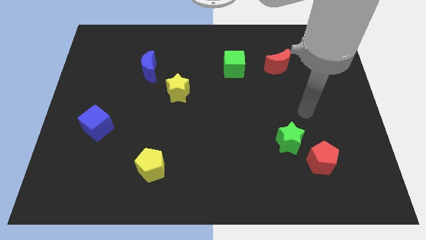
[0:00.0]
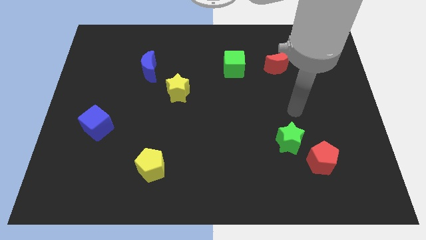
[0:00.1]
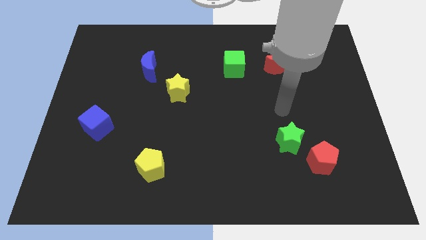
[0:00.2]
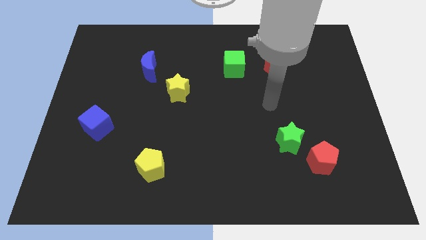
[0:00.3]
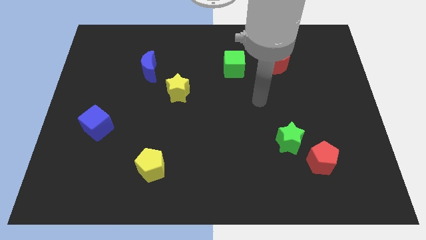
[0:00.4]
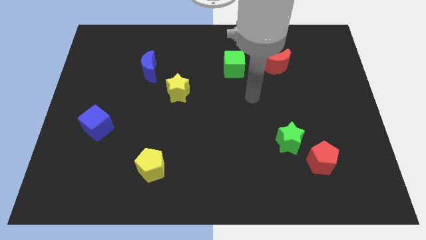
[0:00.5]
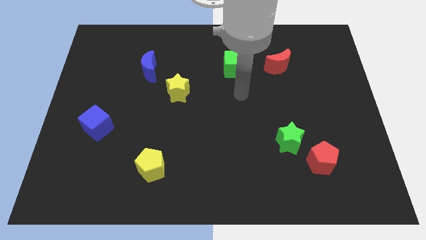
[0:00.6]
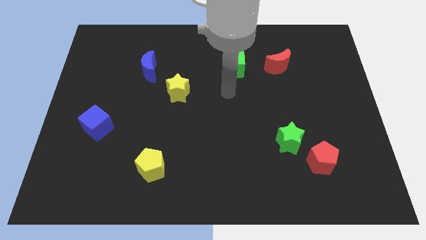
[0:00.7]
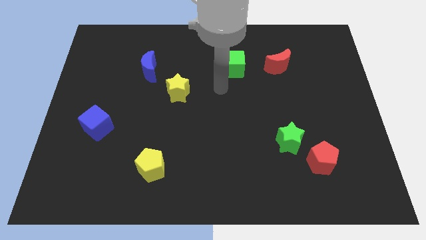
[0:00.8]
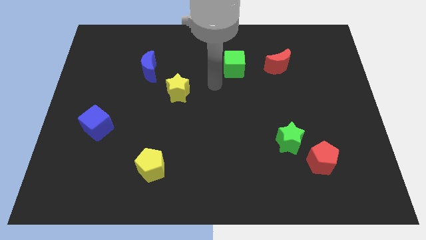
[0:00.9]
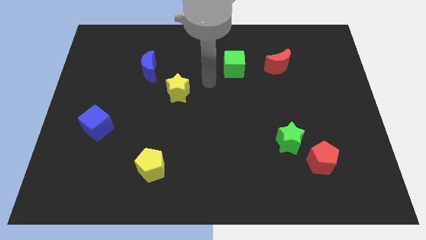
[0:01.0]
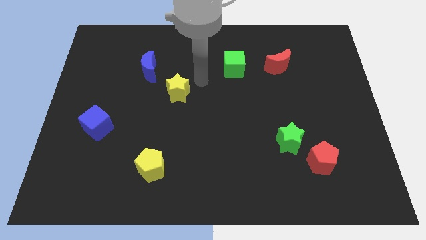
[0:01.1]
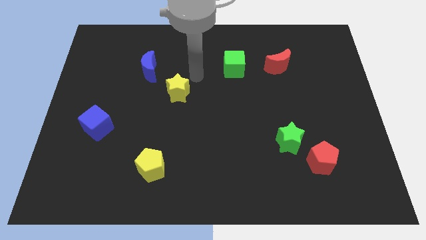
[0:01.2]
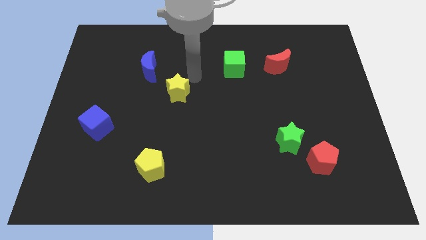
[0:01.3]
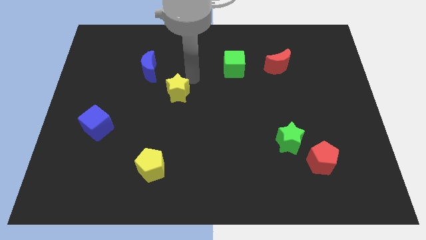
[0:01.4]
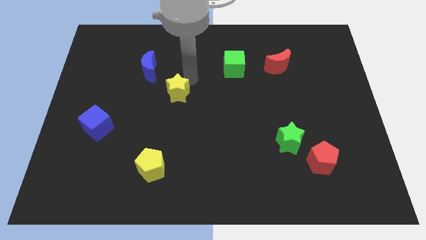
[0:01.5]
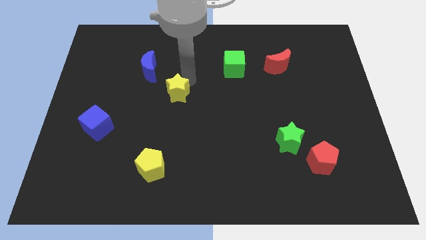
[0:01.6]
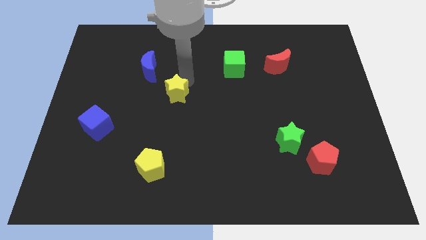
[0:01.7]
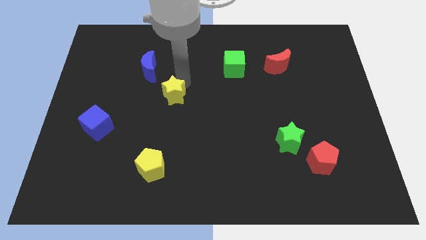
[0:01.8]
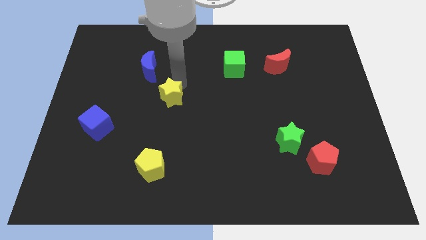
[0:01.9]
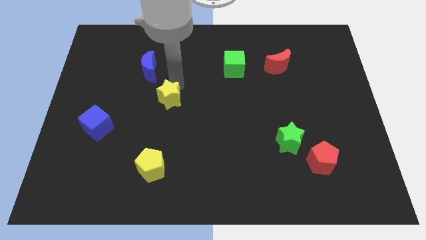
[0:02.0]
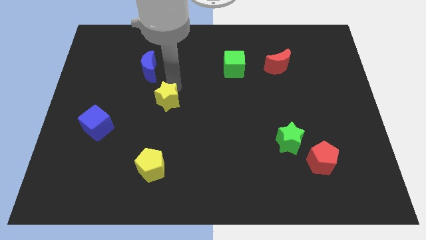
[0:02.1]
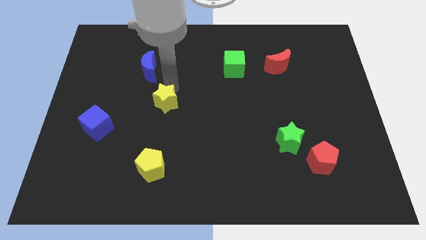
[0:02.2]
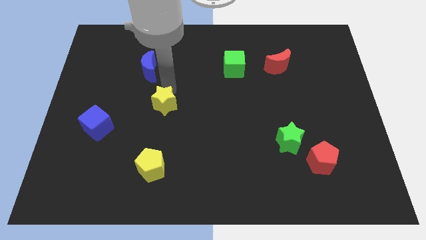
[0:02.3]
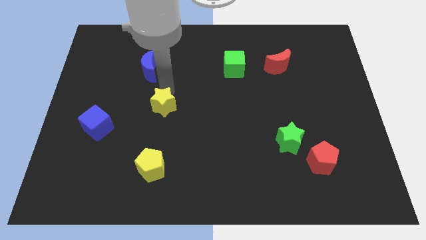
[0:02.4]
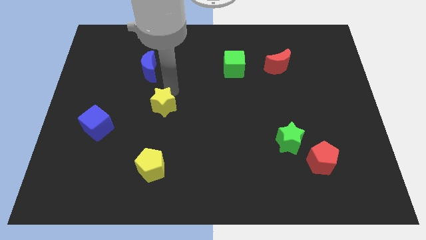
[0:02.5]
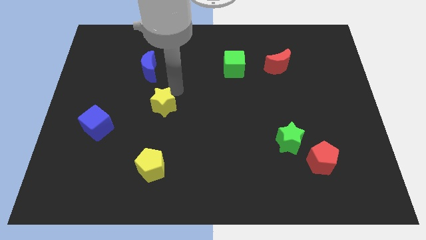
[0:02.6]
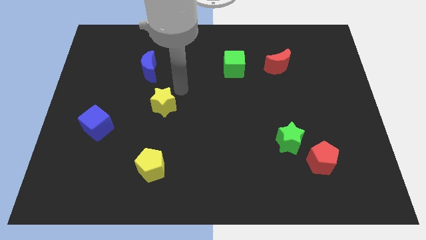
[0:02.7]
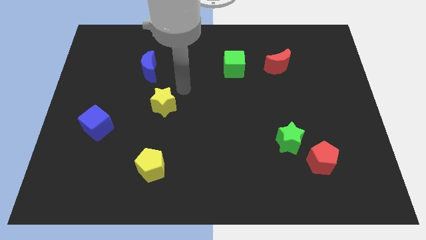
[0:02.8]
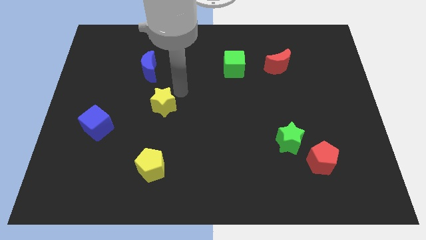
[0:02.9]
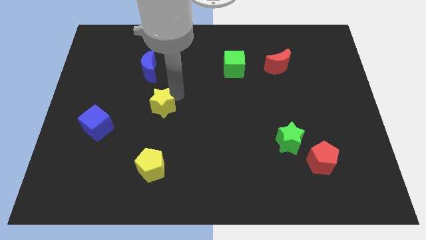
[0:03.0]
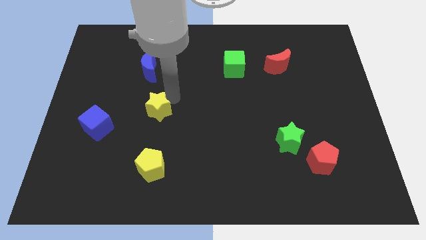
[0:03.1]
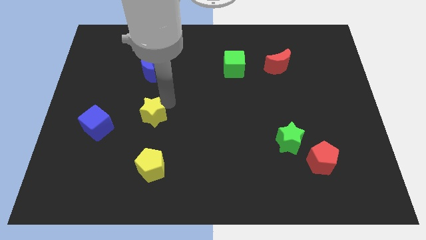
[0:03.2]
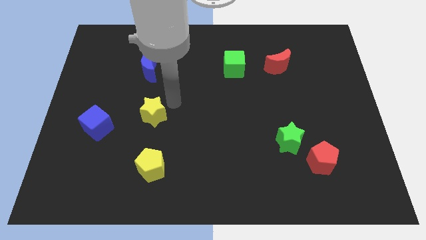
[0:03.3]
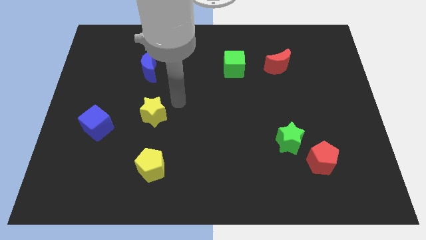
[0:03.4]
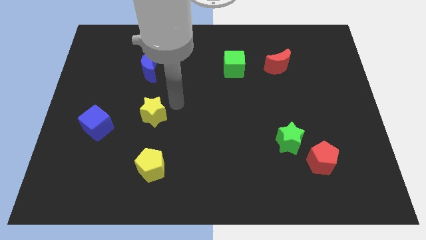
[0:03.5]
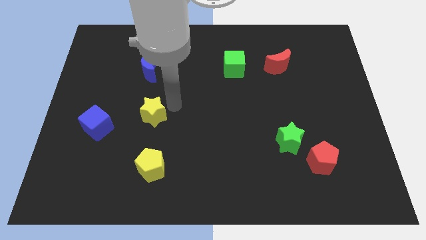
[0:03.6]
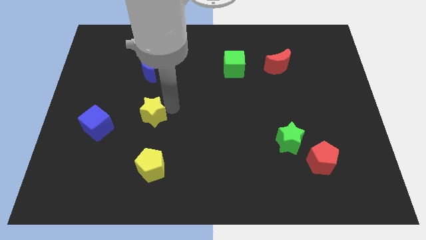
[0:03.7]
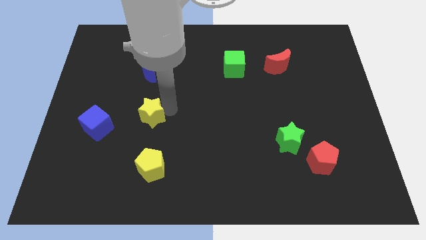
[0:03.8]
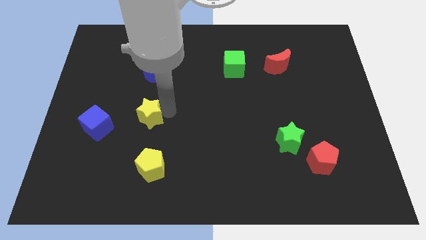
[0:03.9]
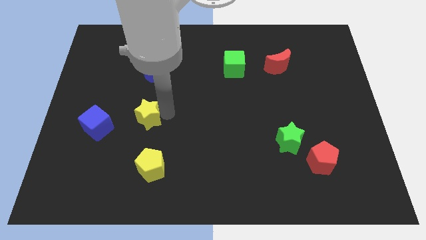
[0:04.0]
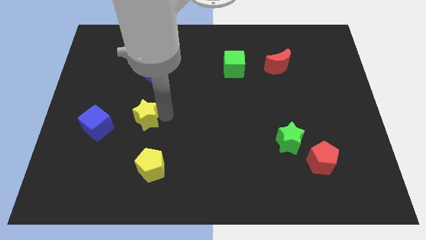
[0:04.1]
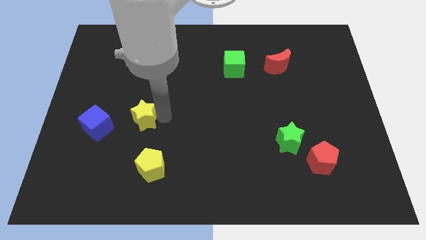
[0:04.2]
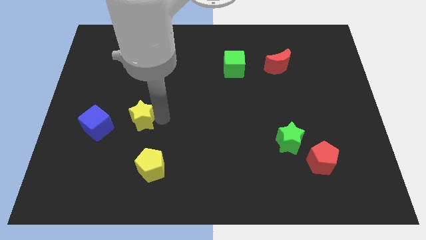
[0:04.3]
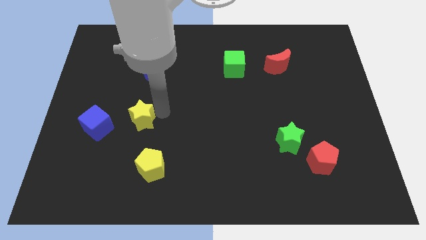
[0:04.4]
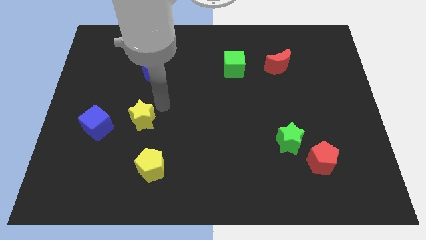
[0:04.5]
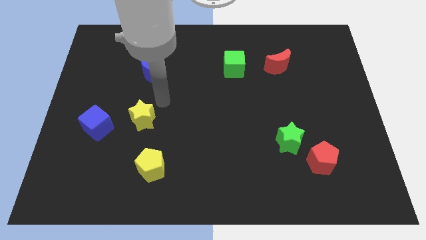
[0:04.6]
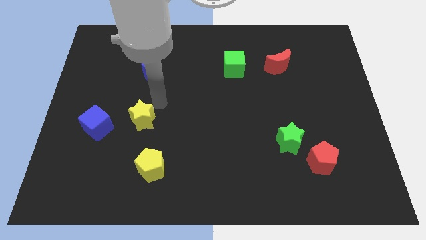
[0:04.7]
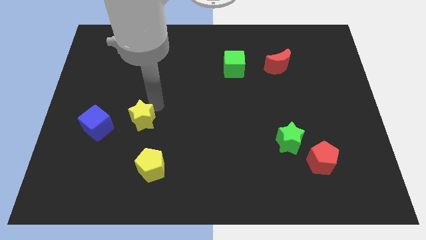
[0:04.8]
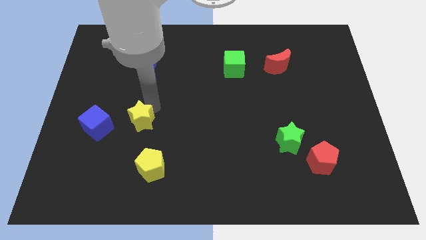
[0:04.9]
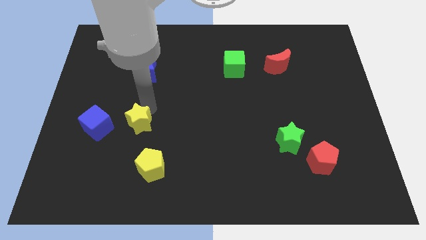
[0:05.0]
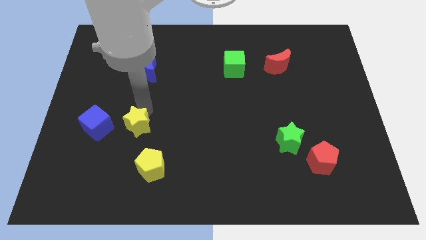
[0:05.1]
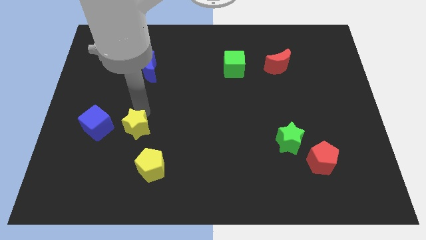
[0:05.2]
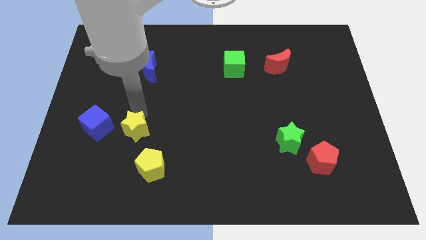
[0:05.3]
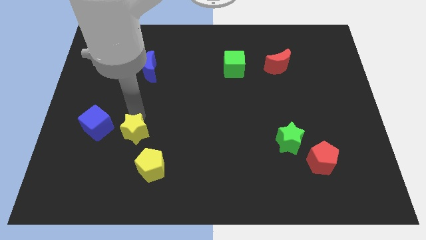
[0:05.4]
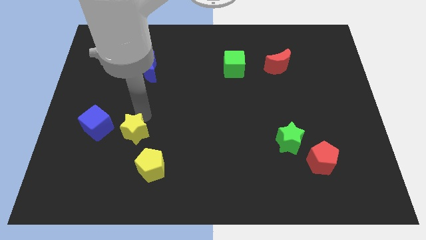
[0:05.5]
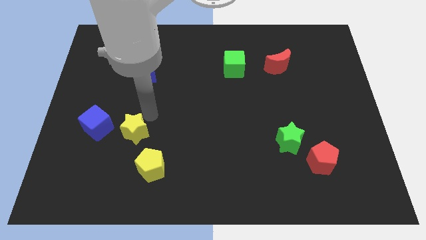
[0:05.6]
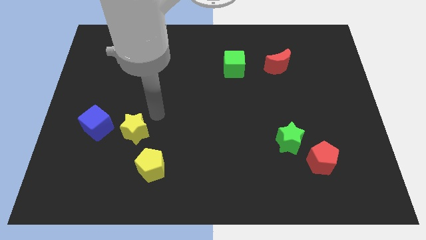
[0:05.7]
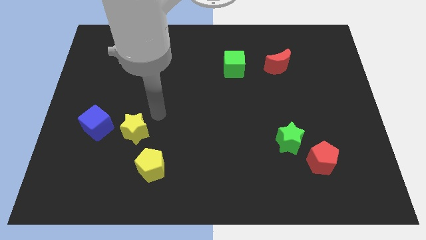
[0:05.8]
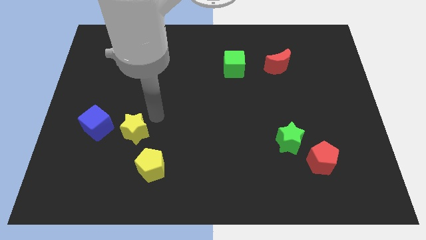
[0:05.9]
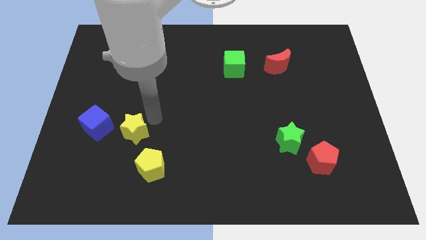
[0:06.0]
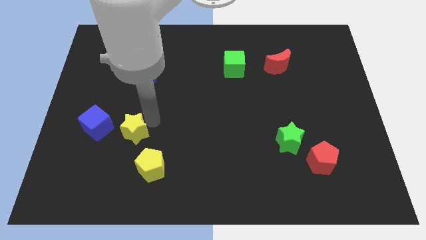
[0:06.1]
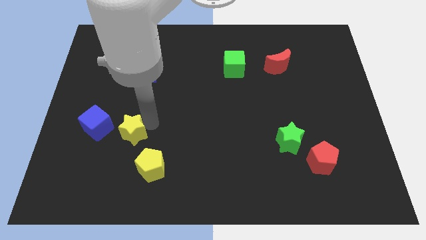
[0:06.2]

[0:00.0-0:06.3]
slide the yellow star to the bottom right side of the blue cube

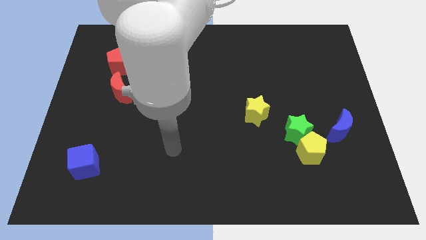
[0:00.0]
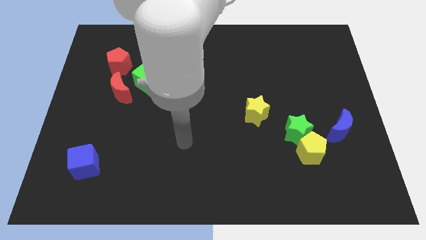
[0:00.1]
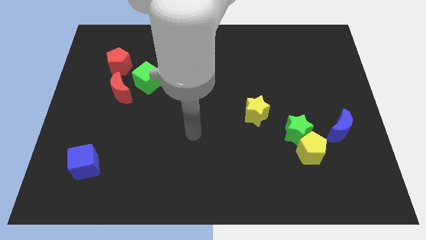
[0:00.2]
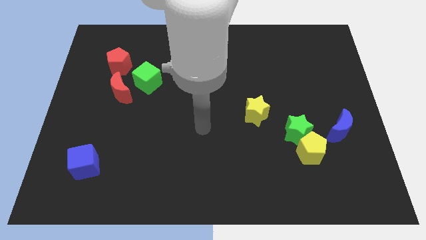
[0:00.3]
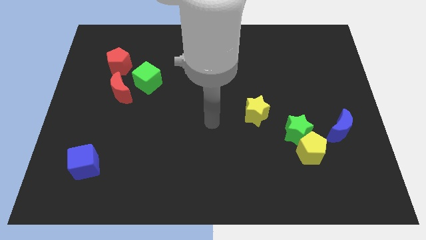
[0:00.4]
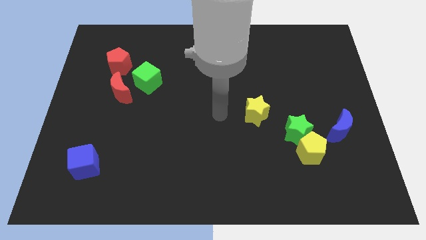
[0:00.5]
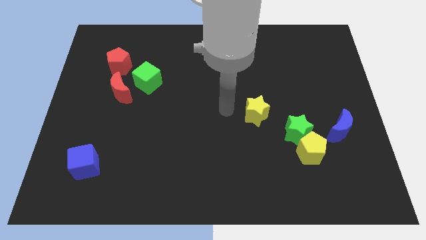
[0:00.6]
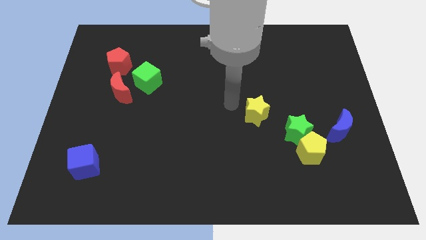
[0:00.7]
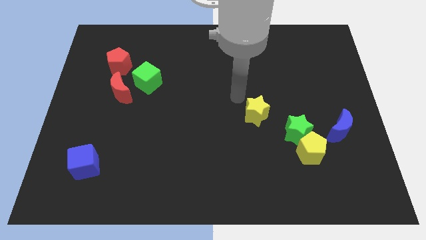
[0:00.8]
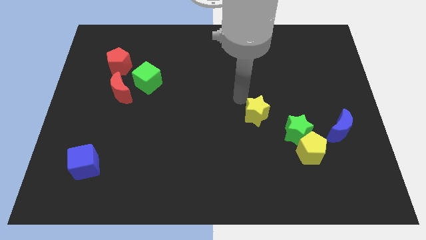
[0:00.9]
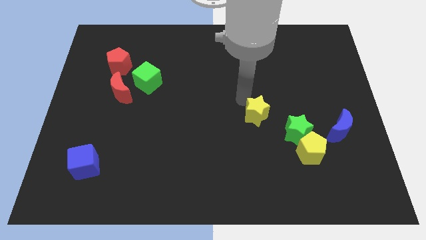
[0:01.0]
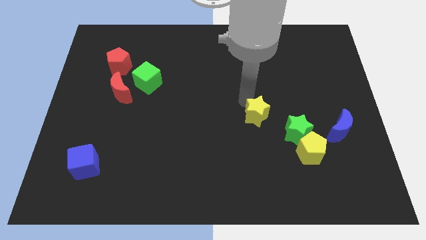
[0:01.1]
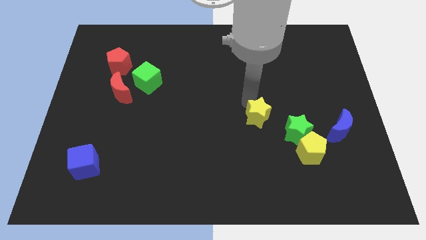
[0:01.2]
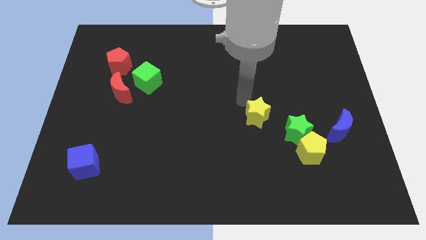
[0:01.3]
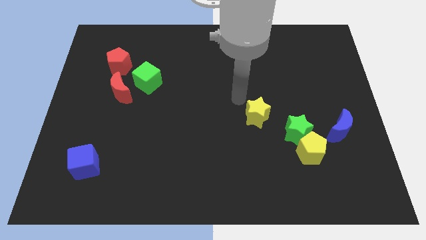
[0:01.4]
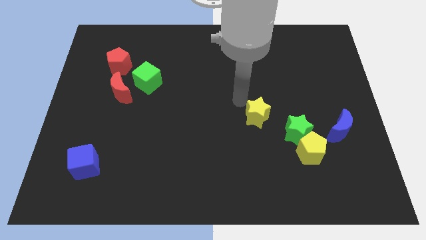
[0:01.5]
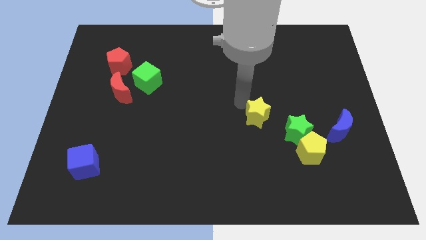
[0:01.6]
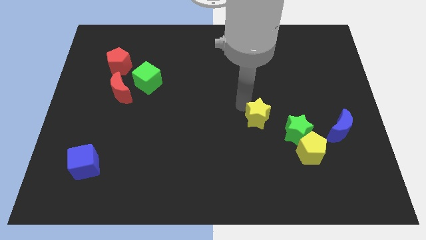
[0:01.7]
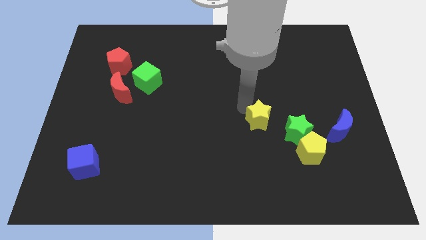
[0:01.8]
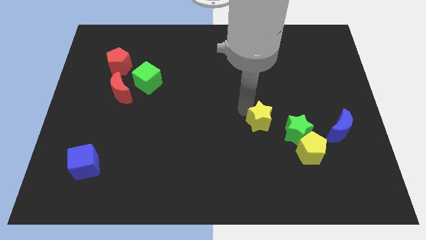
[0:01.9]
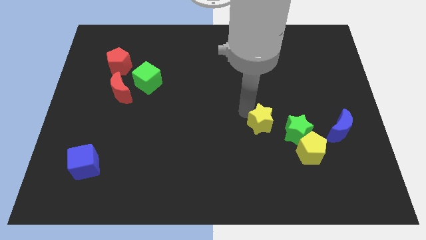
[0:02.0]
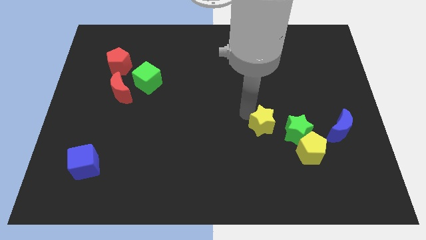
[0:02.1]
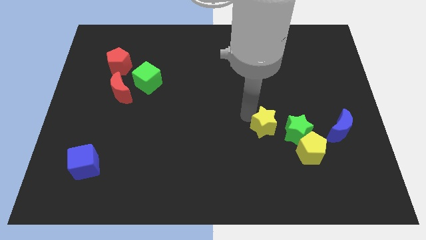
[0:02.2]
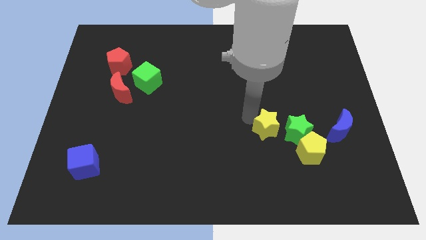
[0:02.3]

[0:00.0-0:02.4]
put the yellow star just left of the blue moon
